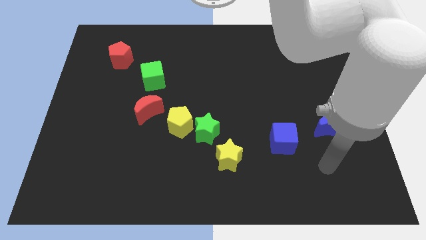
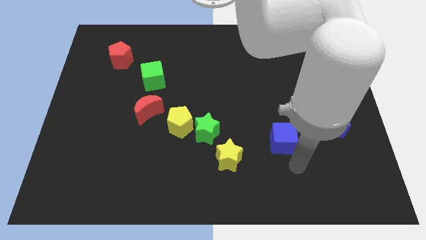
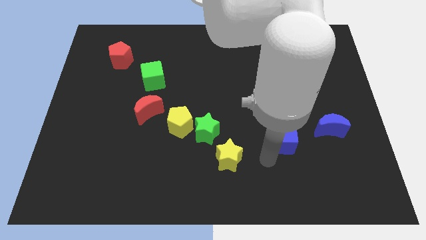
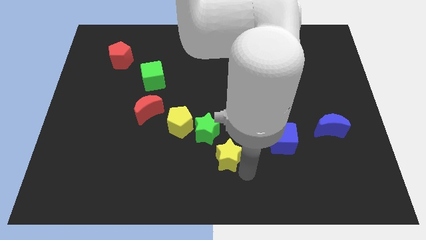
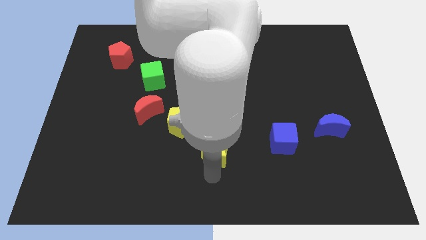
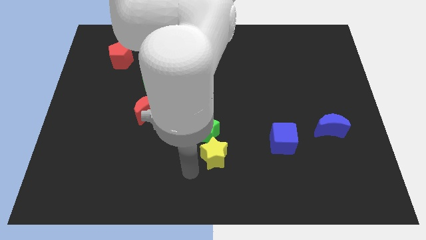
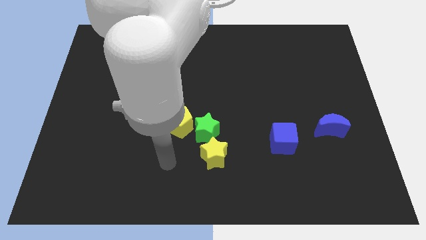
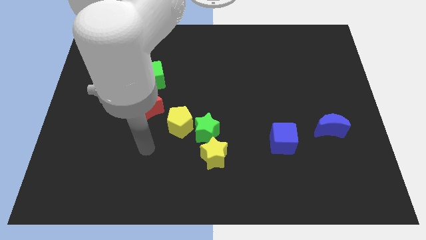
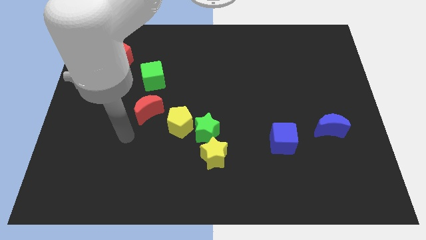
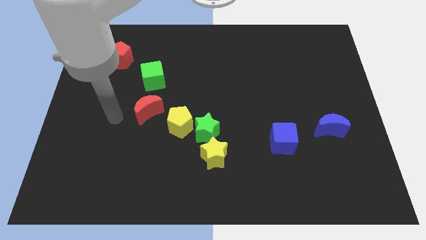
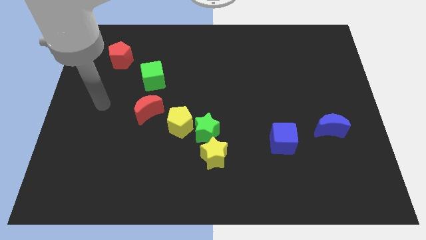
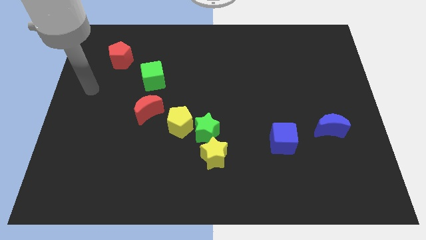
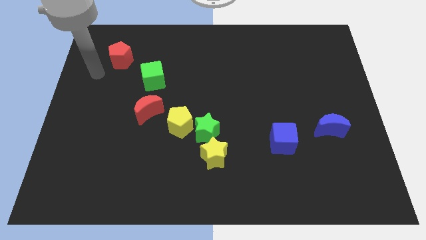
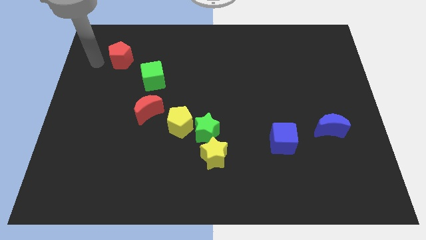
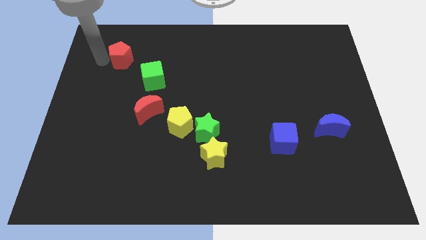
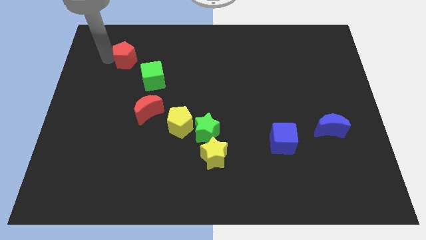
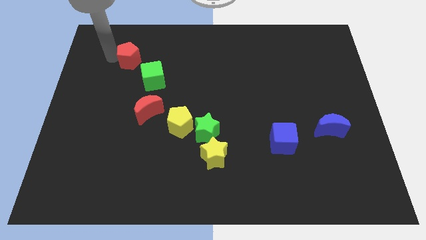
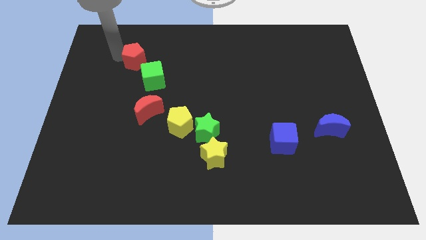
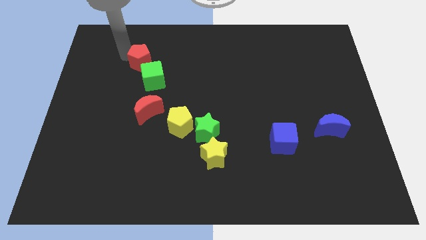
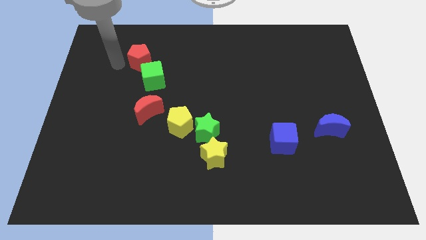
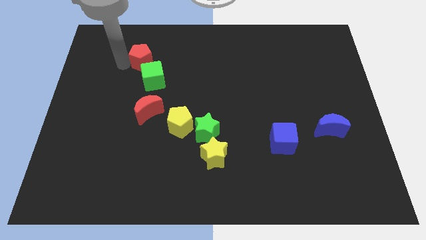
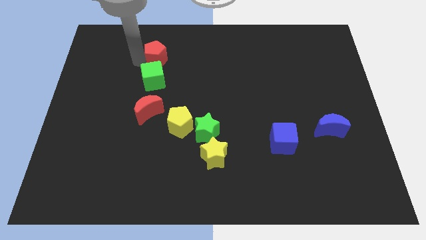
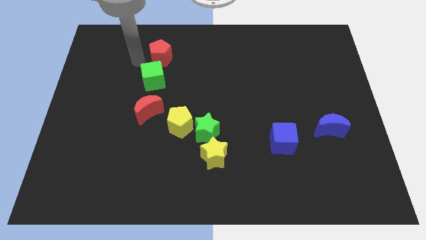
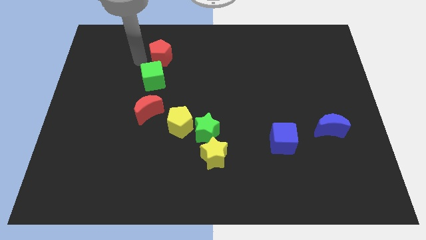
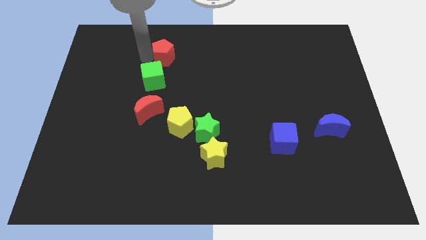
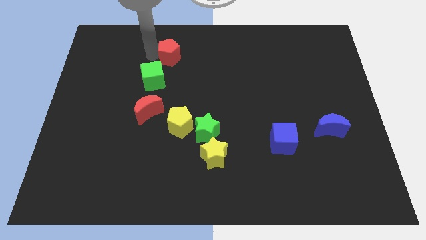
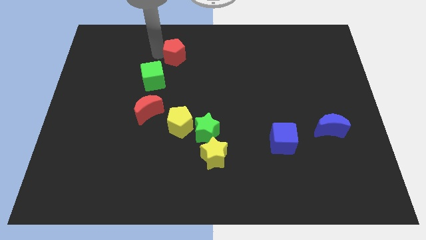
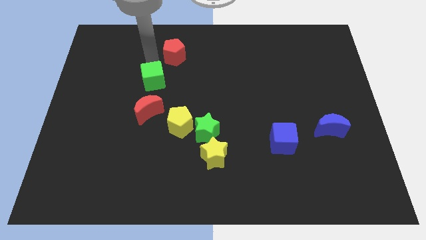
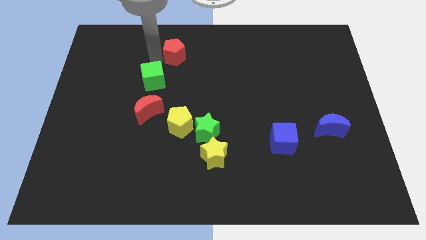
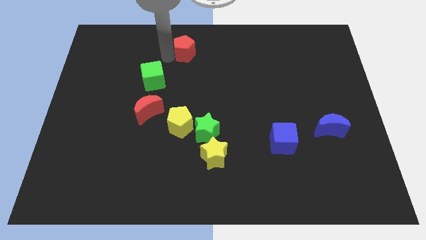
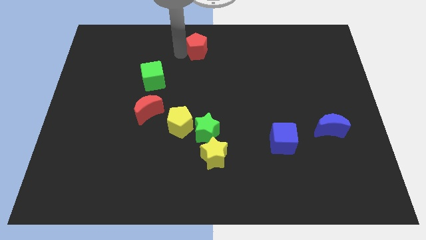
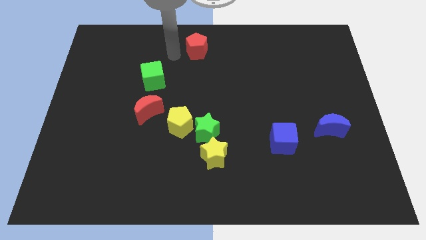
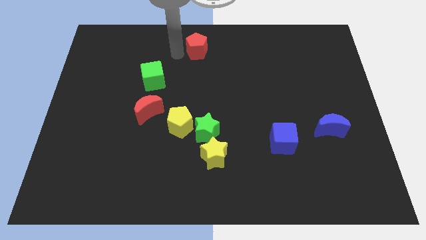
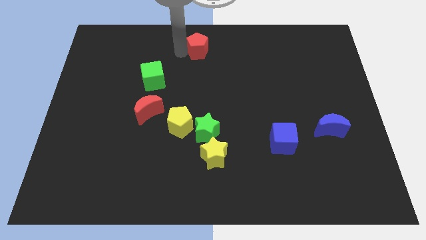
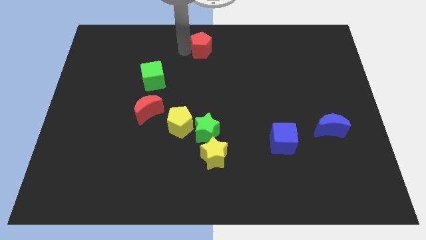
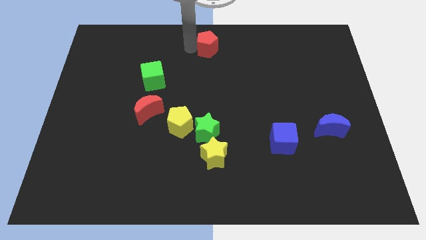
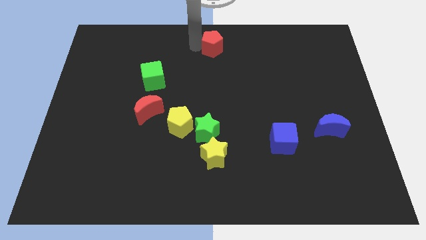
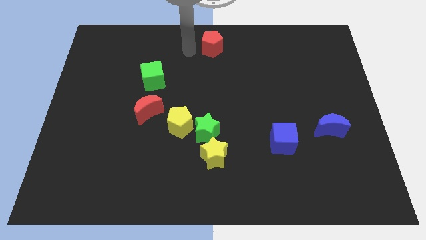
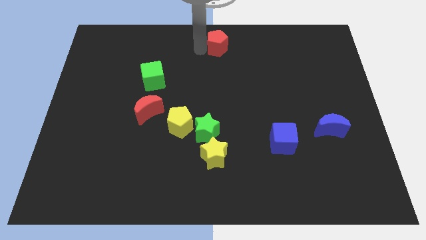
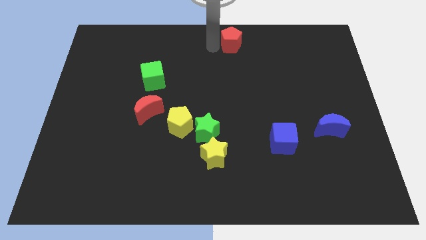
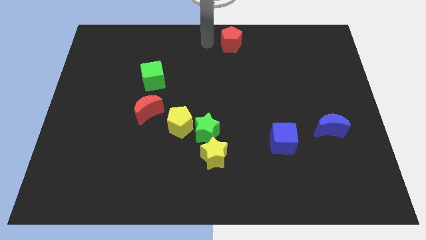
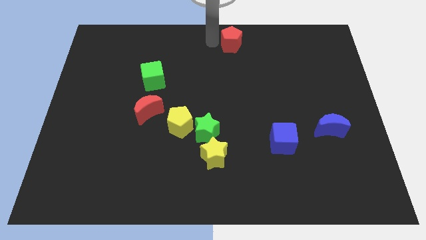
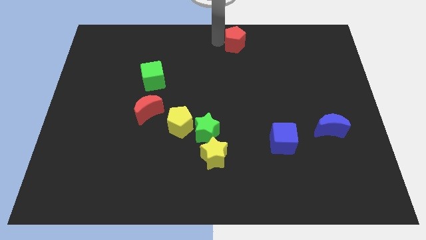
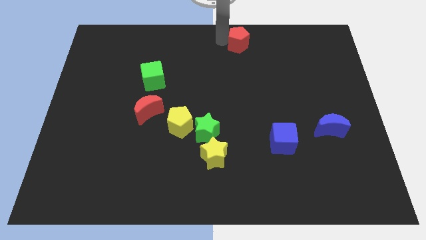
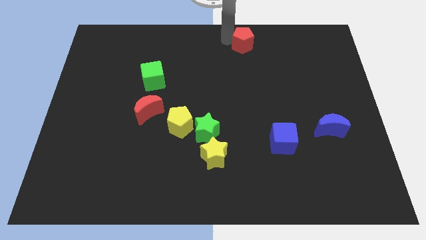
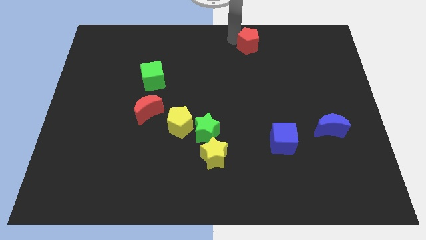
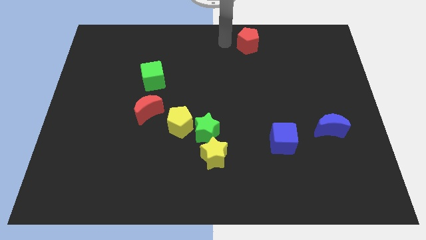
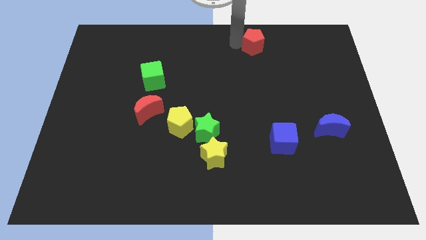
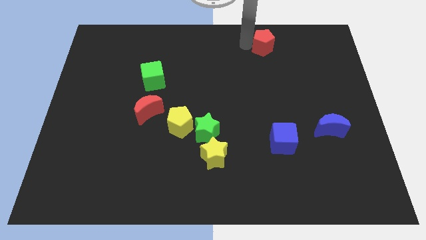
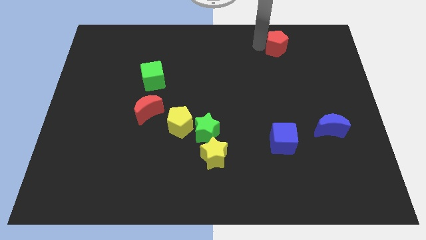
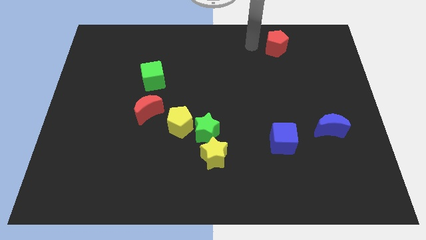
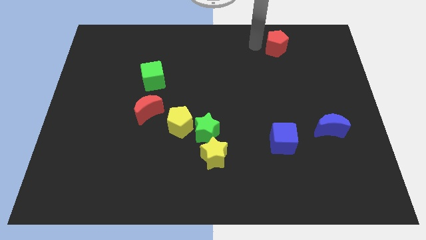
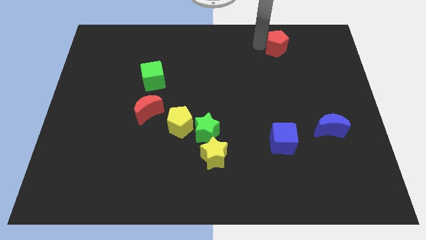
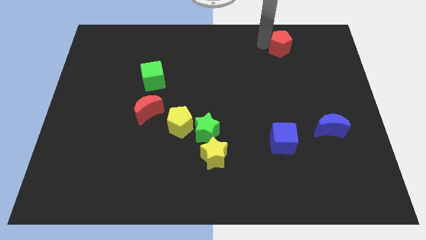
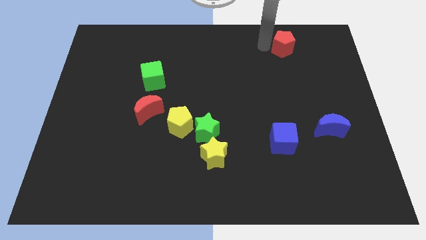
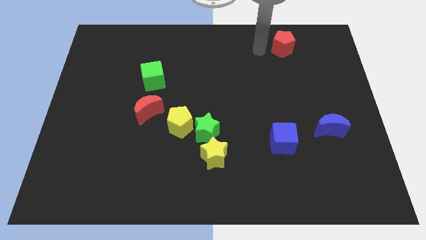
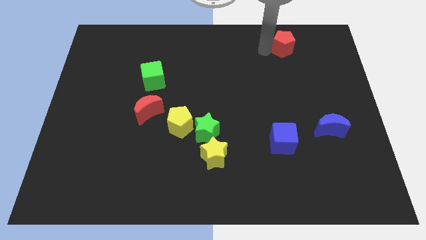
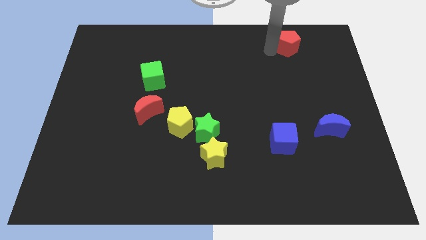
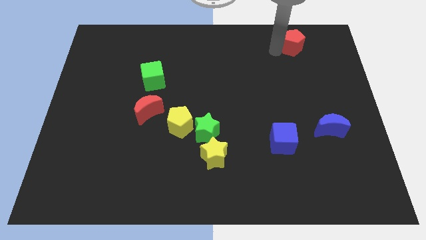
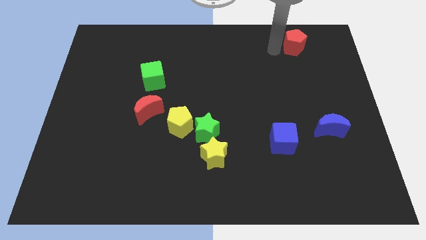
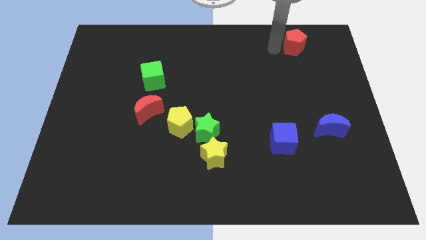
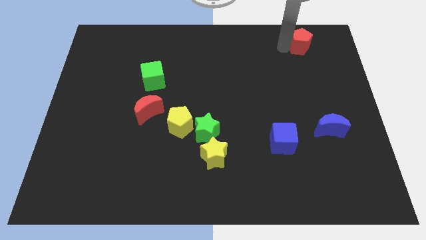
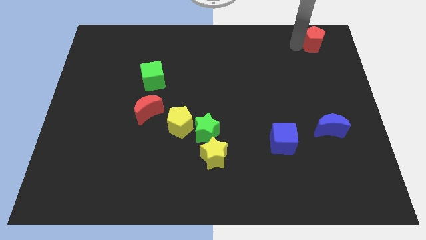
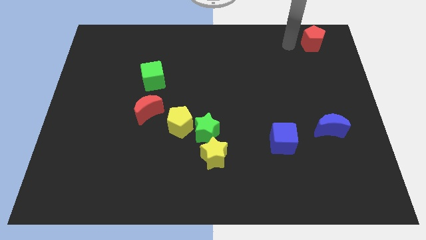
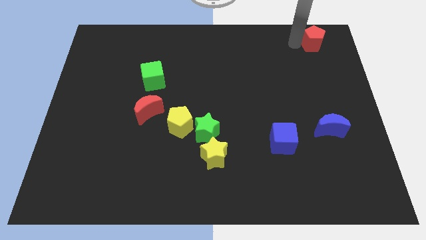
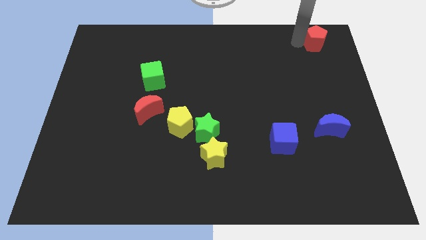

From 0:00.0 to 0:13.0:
move the red pentagon to the top right
